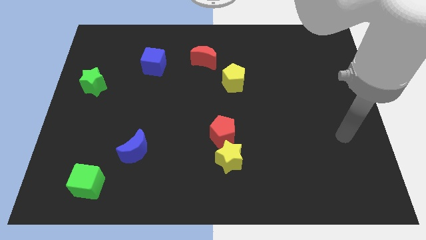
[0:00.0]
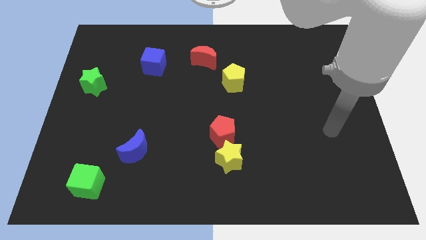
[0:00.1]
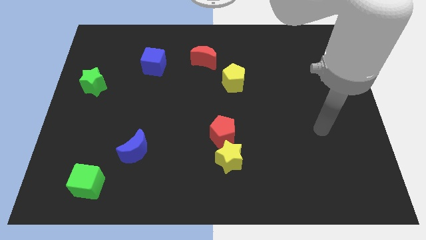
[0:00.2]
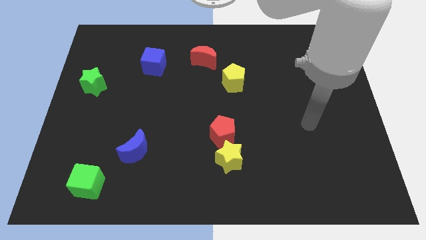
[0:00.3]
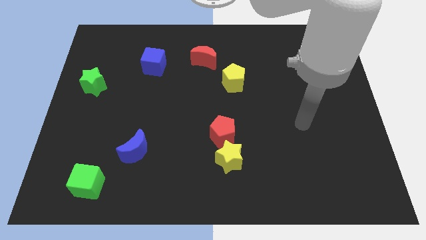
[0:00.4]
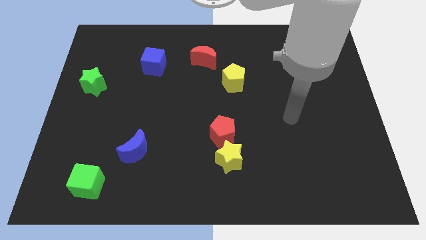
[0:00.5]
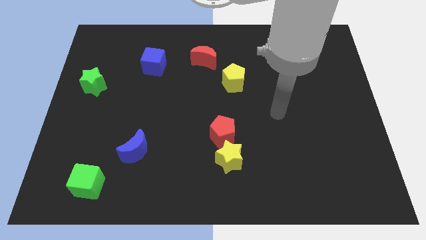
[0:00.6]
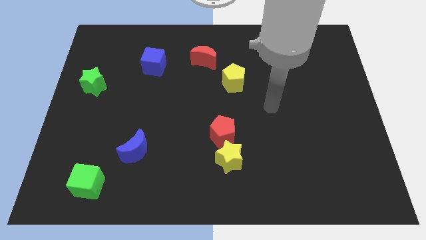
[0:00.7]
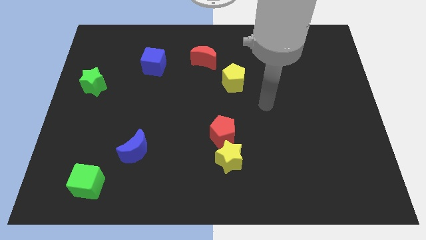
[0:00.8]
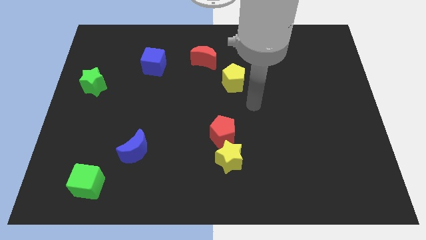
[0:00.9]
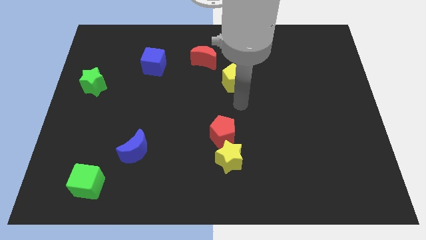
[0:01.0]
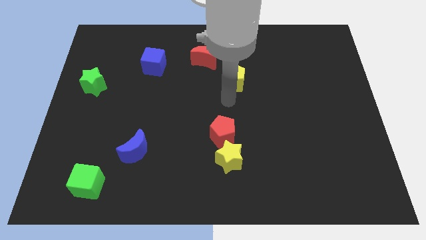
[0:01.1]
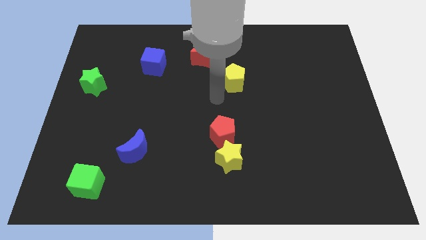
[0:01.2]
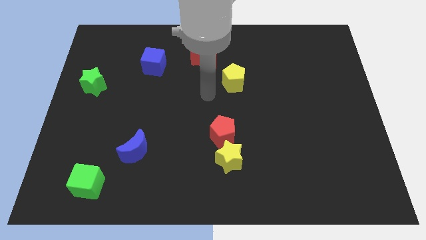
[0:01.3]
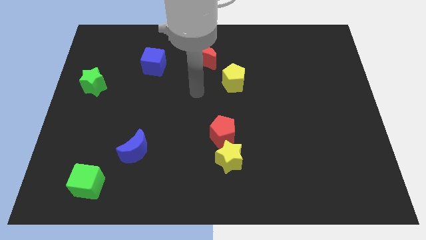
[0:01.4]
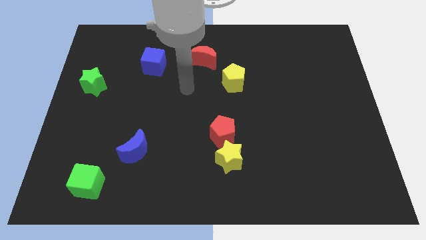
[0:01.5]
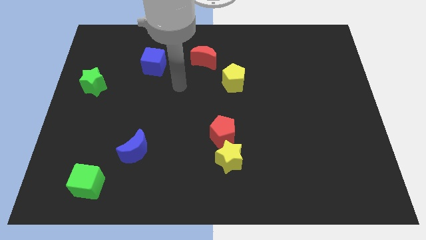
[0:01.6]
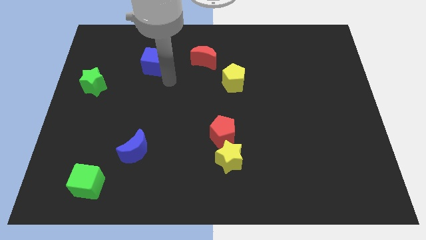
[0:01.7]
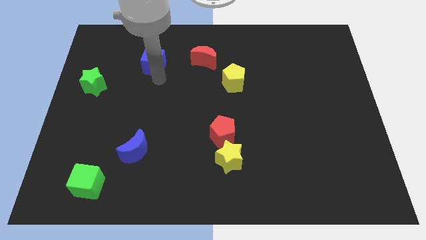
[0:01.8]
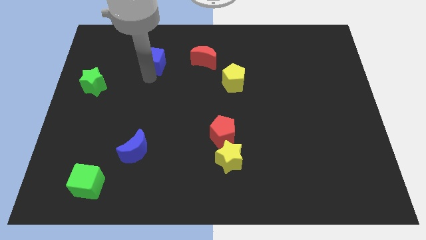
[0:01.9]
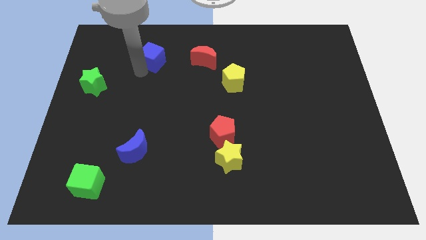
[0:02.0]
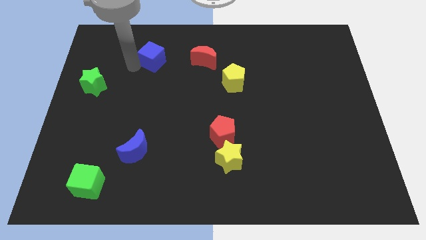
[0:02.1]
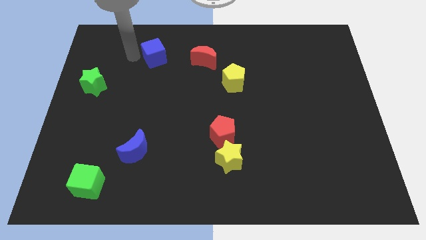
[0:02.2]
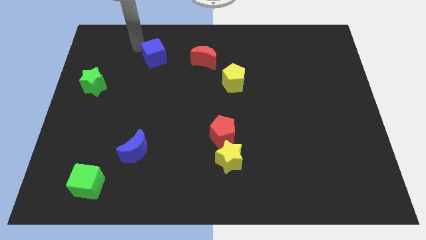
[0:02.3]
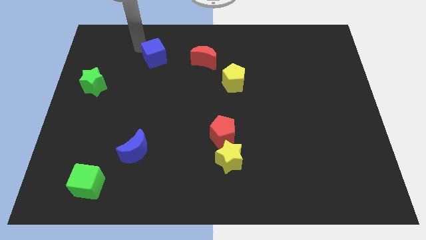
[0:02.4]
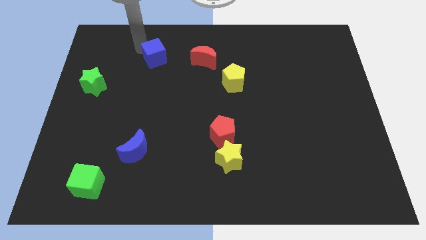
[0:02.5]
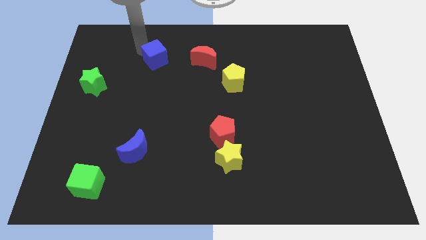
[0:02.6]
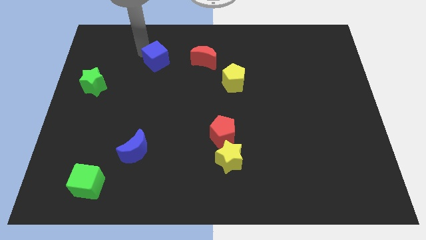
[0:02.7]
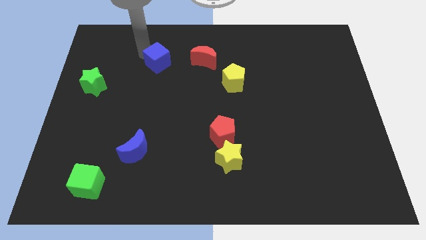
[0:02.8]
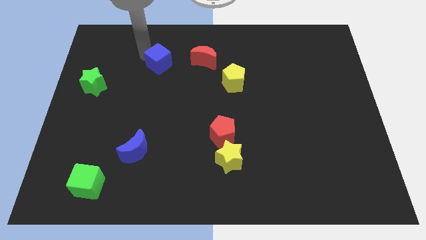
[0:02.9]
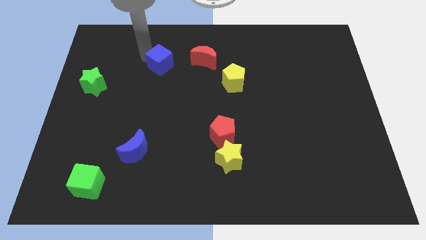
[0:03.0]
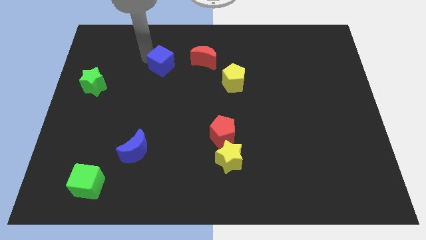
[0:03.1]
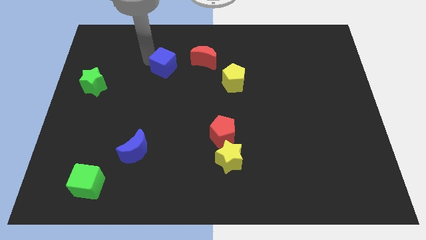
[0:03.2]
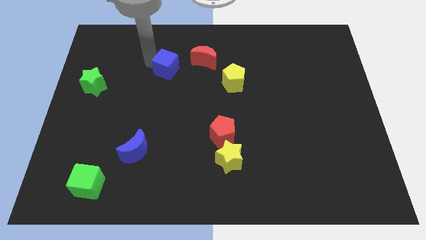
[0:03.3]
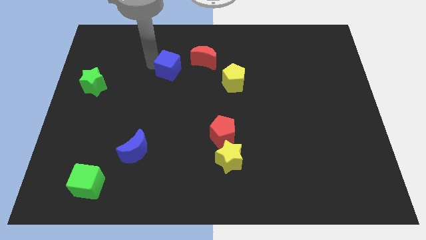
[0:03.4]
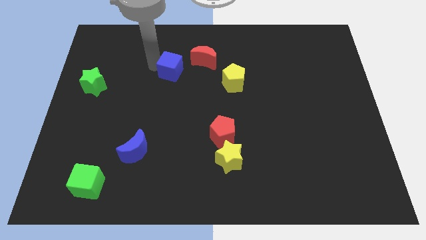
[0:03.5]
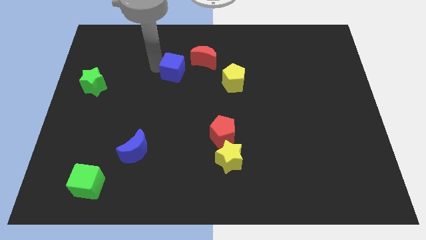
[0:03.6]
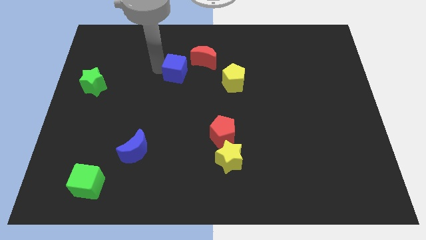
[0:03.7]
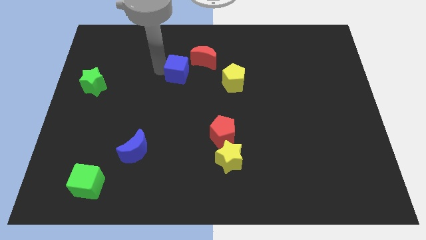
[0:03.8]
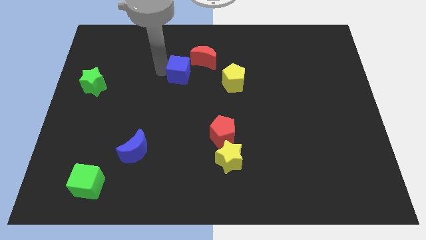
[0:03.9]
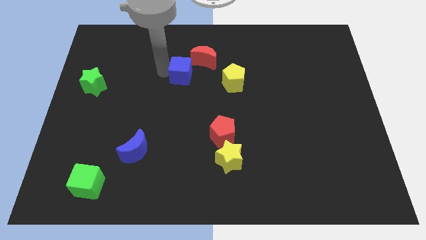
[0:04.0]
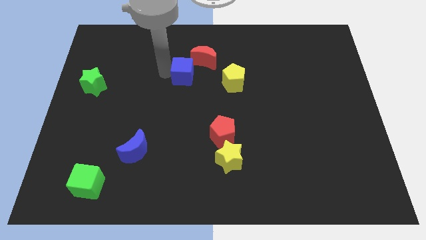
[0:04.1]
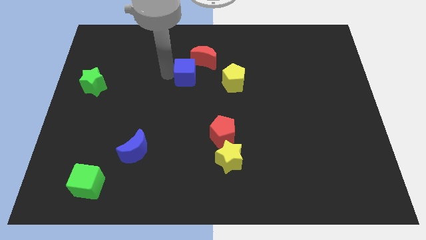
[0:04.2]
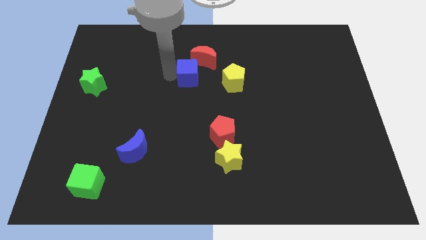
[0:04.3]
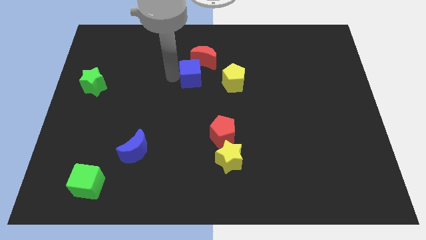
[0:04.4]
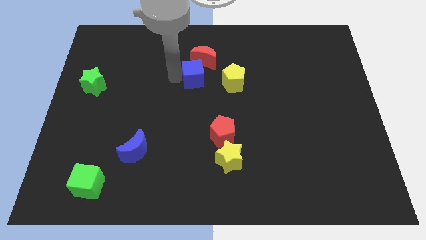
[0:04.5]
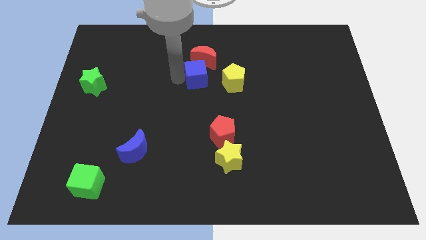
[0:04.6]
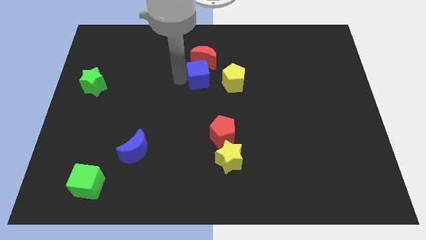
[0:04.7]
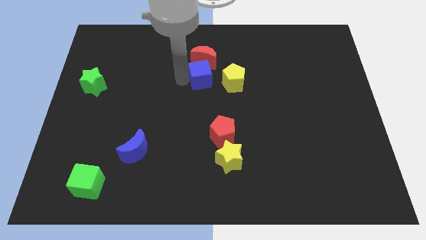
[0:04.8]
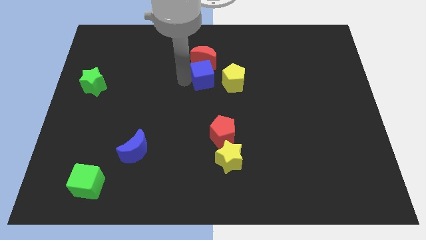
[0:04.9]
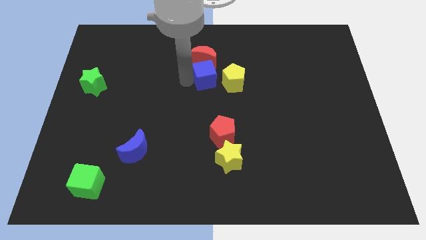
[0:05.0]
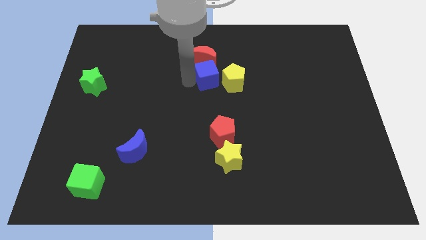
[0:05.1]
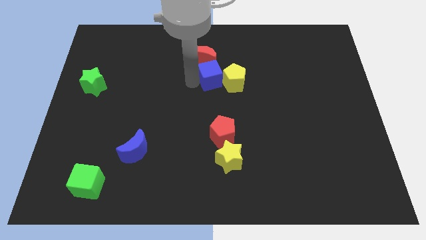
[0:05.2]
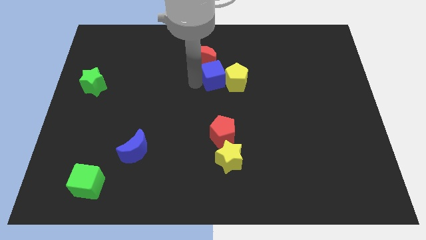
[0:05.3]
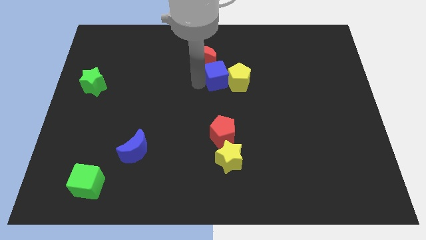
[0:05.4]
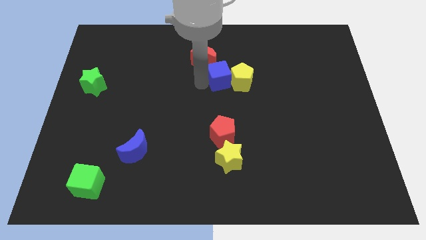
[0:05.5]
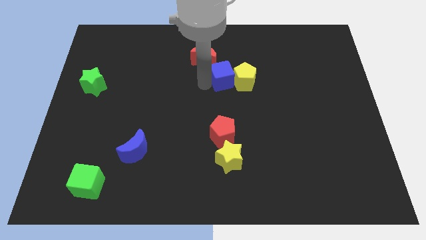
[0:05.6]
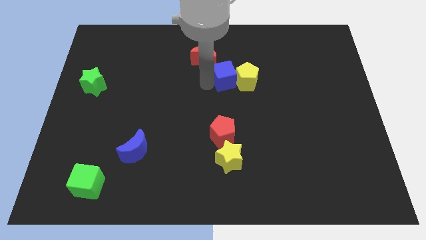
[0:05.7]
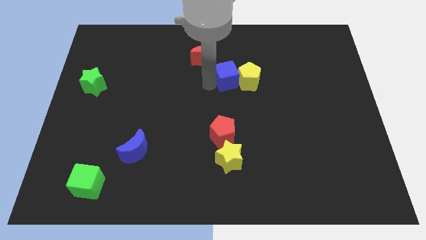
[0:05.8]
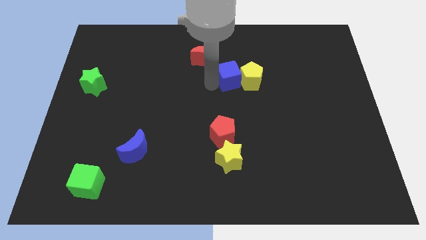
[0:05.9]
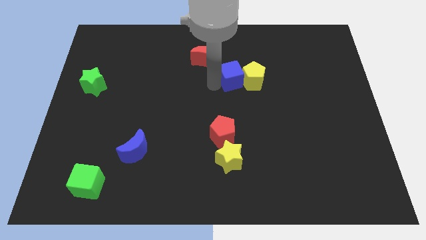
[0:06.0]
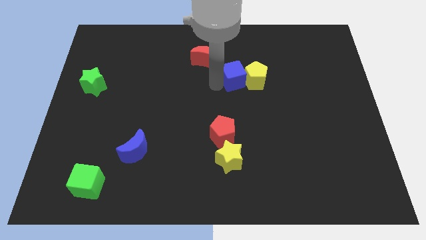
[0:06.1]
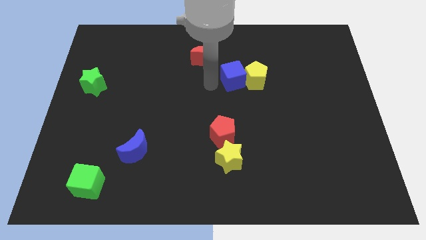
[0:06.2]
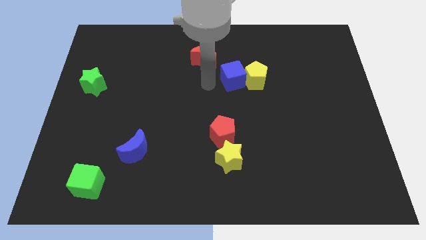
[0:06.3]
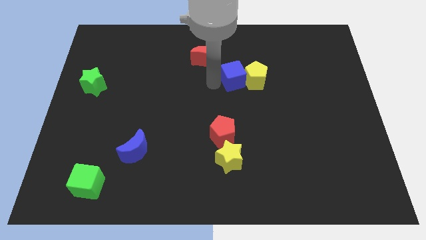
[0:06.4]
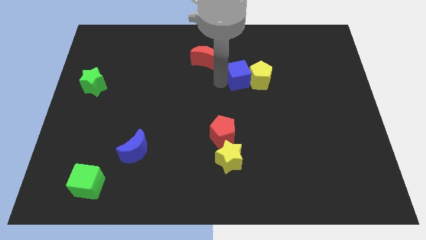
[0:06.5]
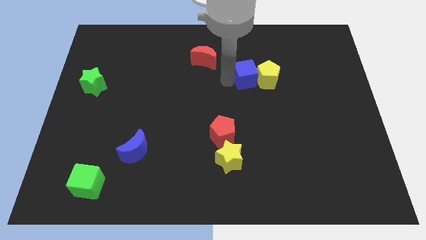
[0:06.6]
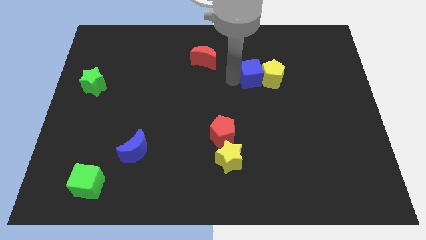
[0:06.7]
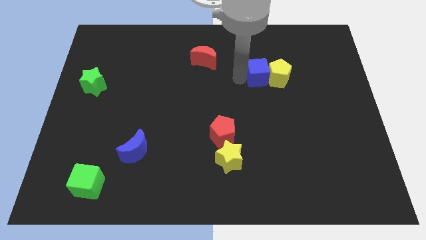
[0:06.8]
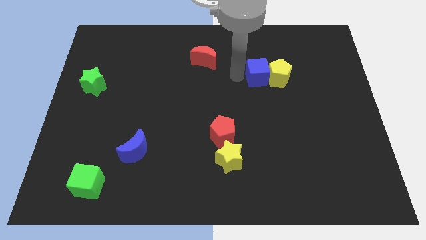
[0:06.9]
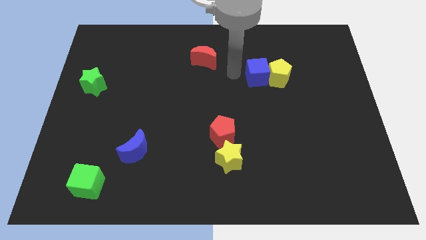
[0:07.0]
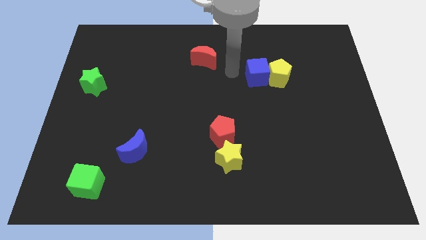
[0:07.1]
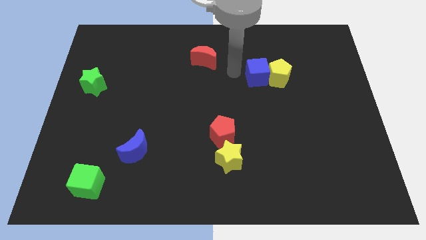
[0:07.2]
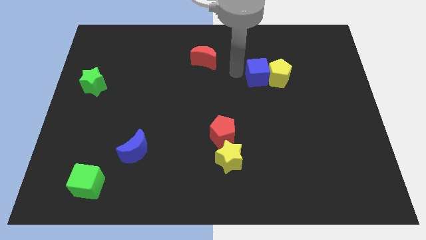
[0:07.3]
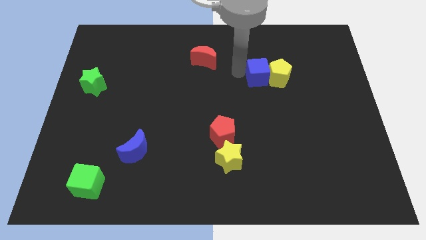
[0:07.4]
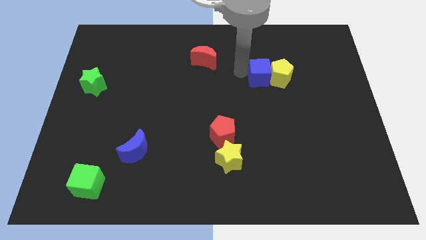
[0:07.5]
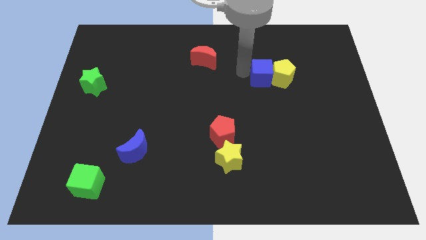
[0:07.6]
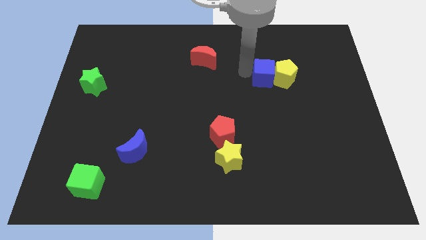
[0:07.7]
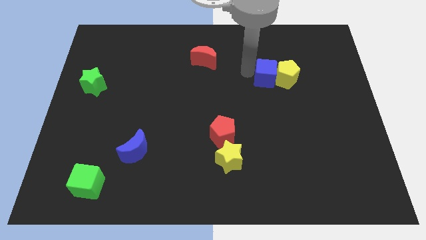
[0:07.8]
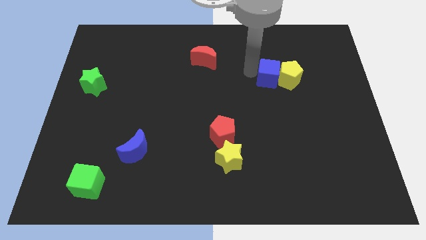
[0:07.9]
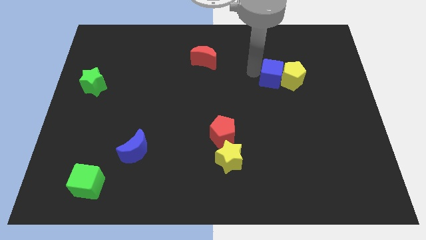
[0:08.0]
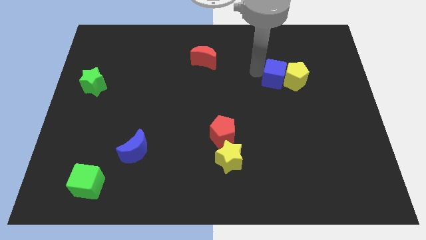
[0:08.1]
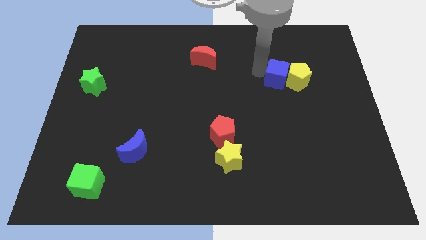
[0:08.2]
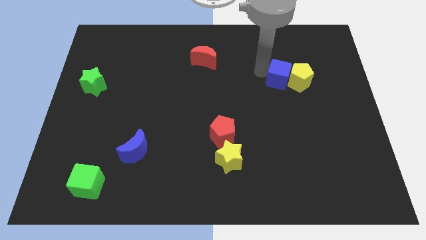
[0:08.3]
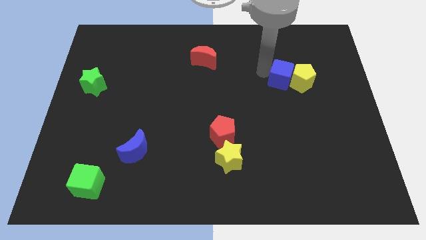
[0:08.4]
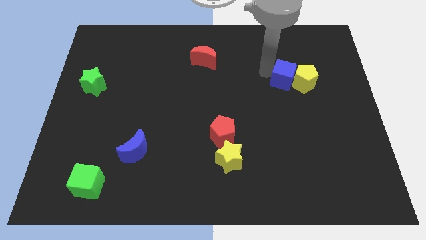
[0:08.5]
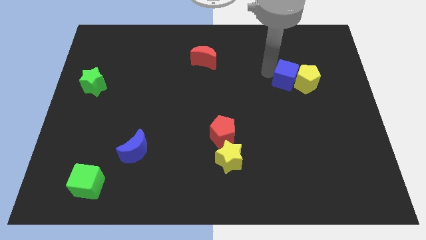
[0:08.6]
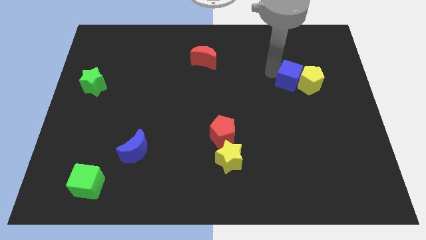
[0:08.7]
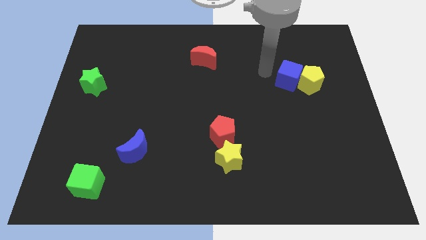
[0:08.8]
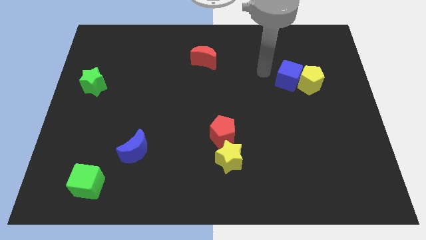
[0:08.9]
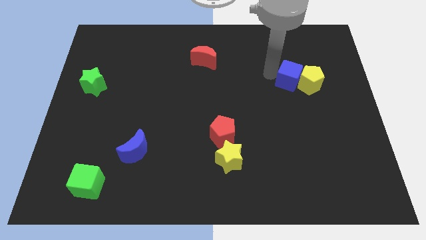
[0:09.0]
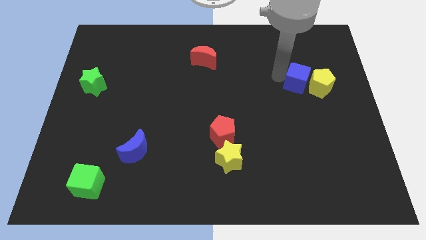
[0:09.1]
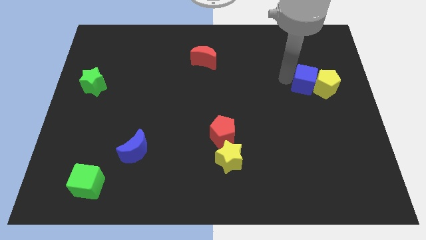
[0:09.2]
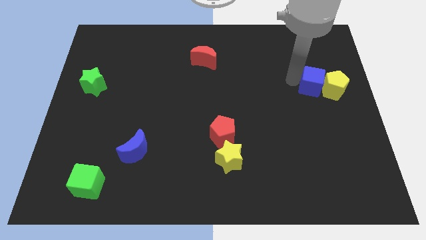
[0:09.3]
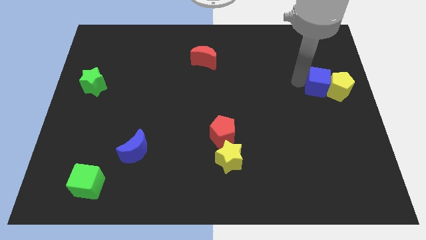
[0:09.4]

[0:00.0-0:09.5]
put the blue cube to the right side of the board
